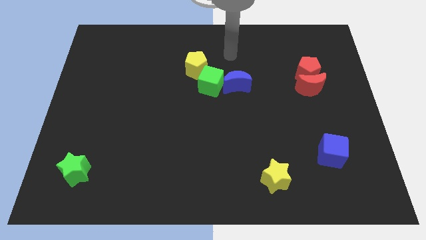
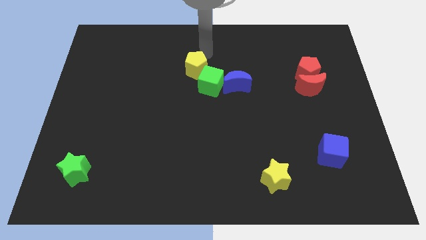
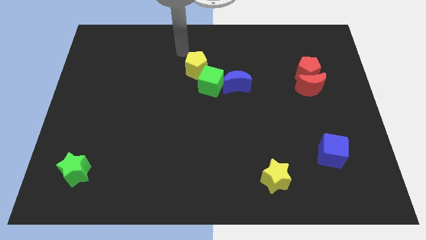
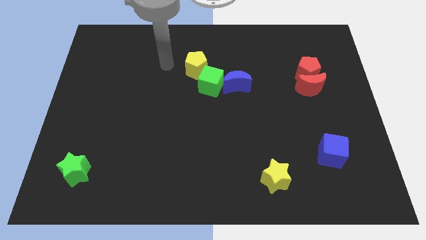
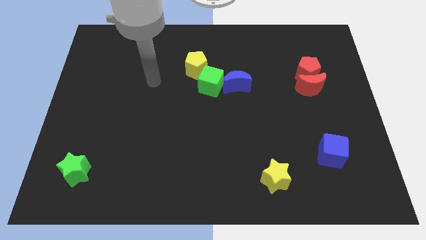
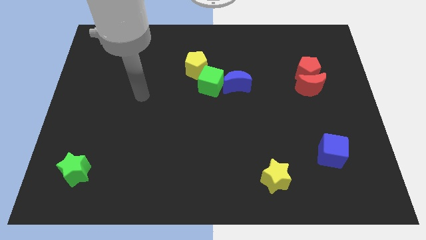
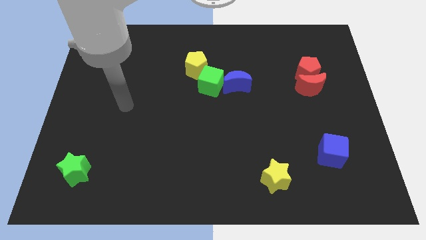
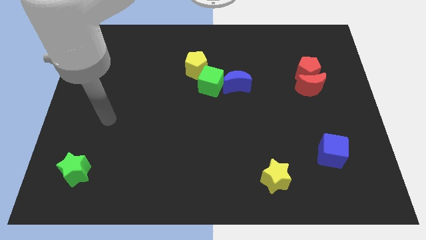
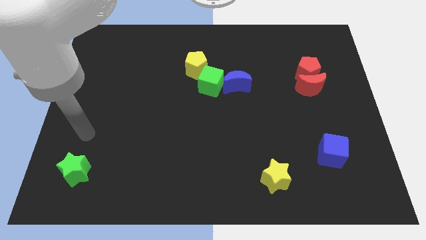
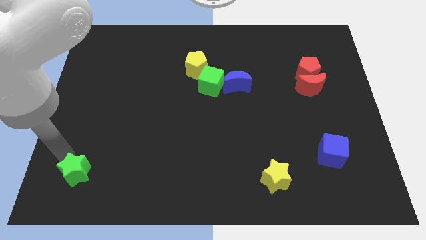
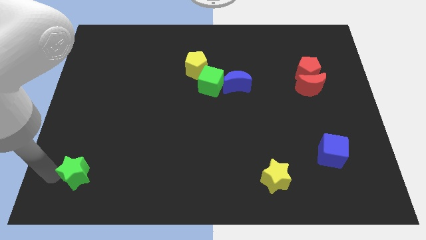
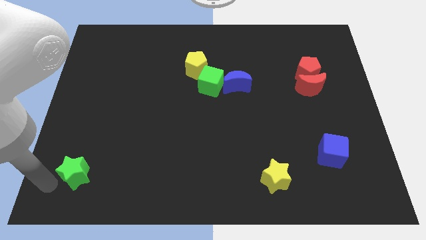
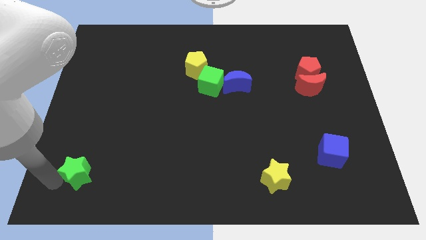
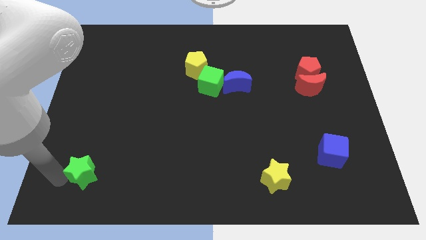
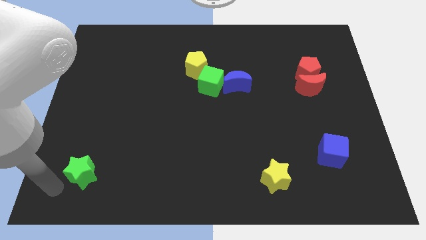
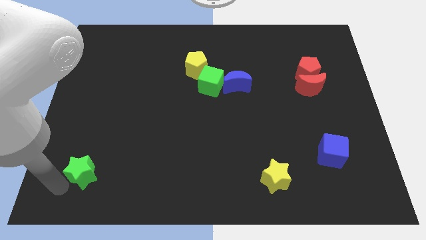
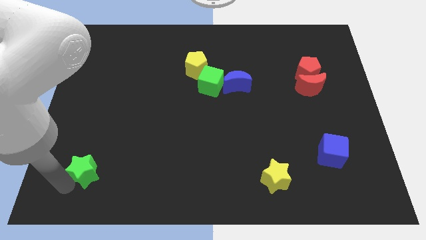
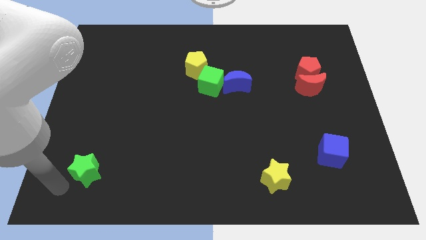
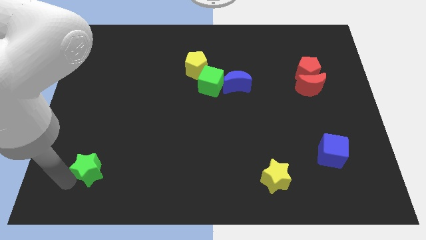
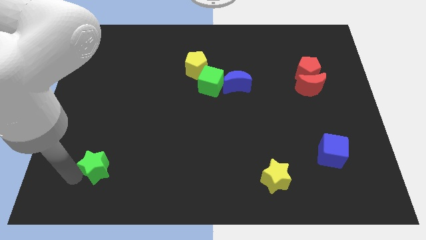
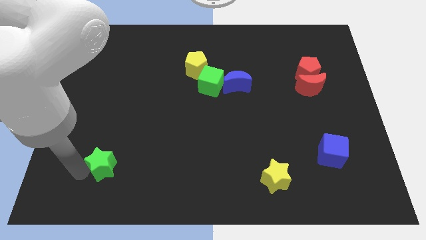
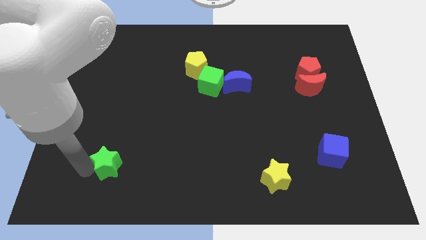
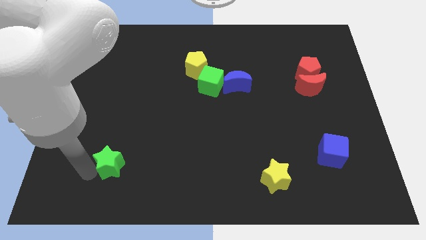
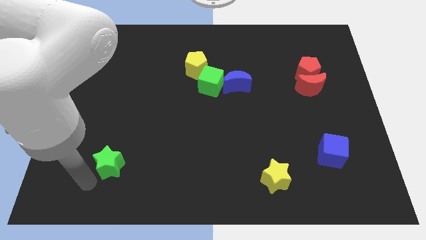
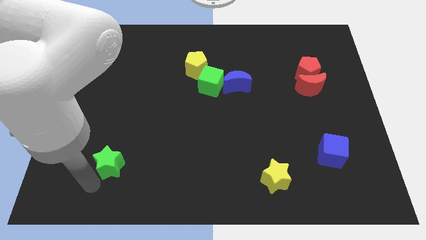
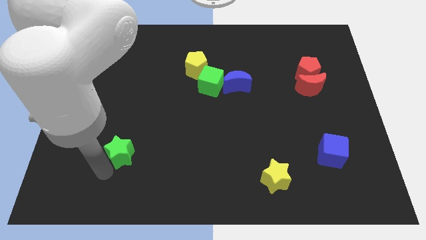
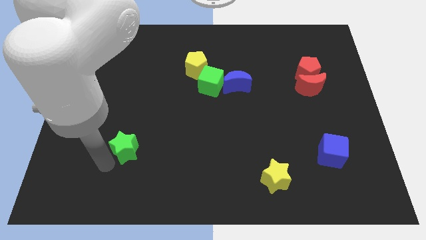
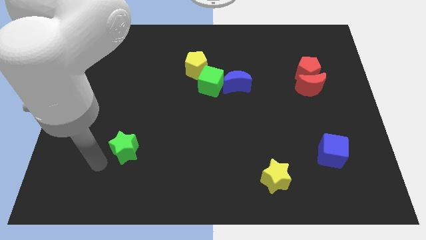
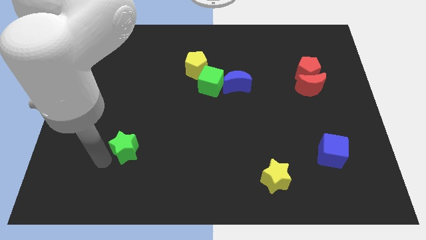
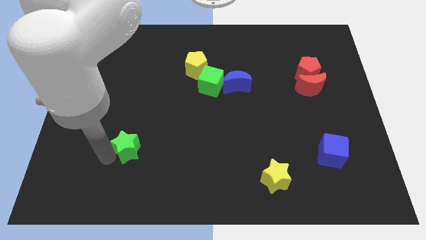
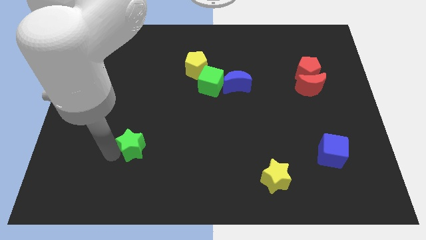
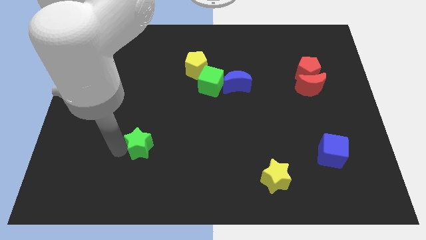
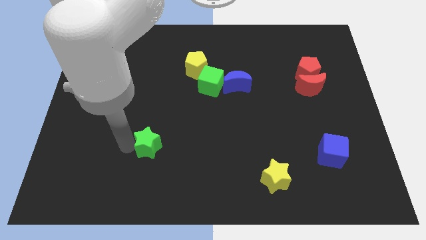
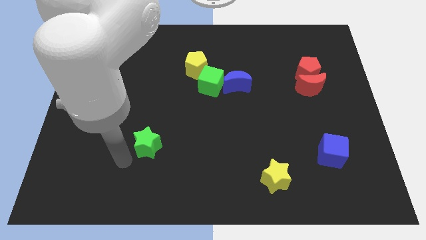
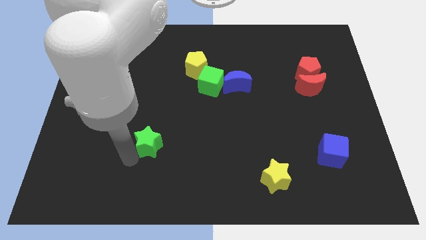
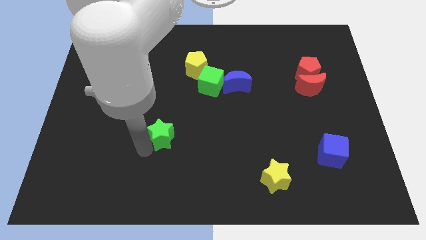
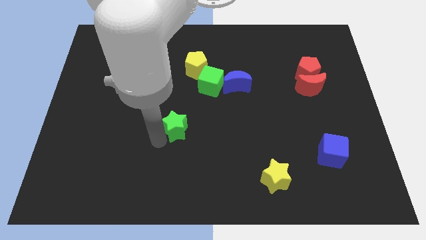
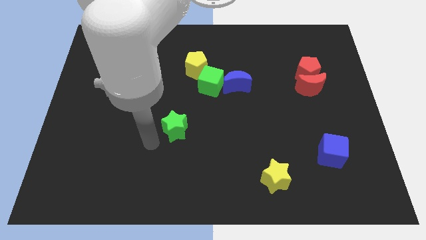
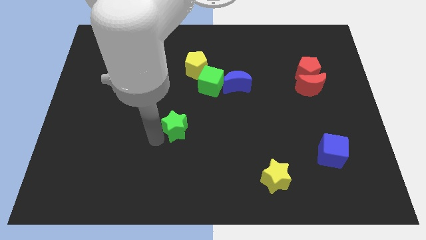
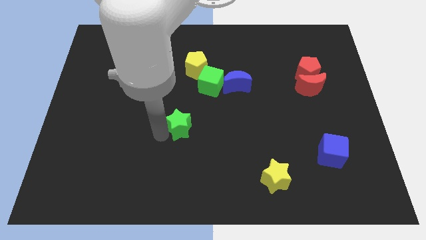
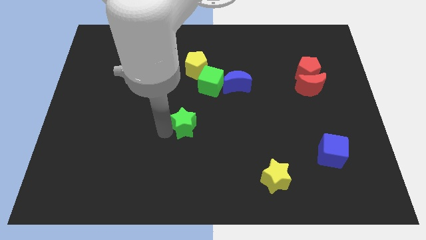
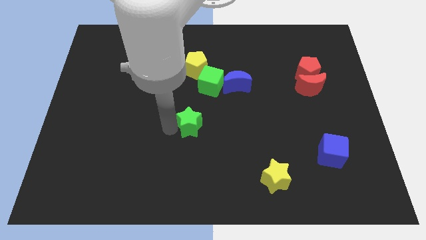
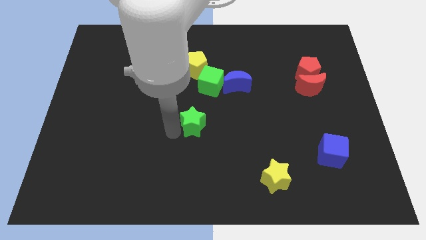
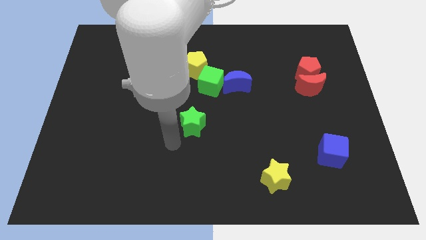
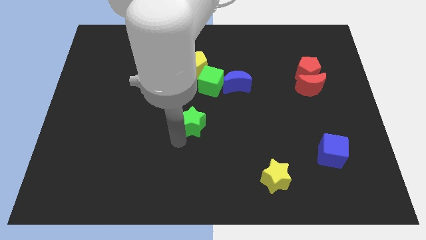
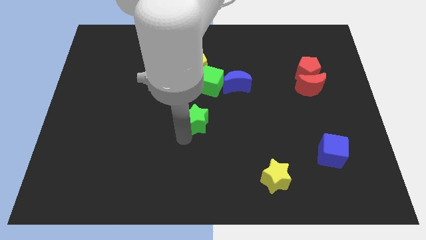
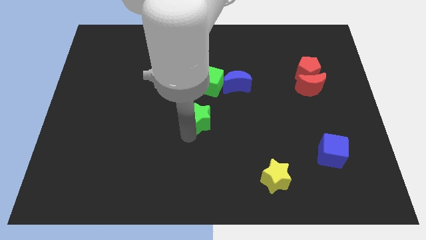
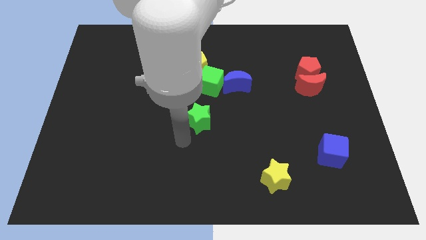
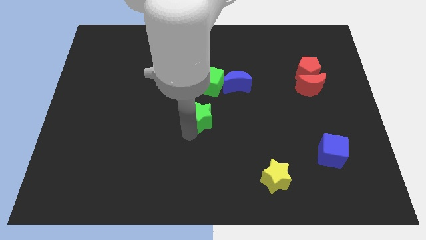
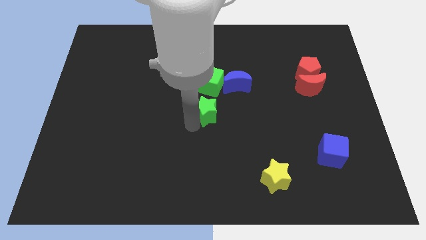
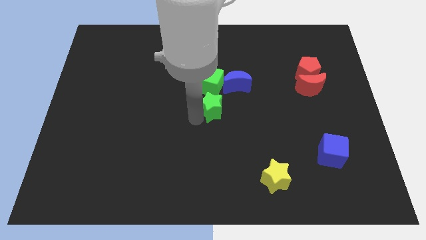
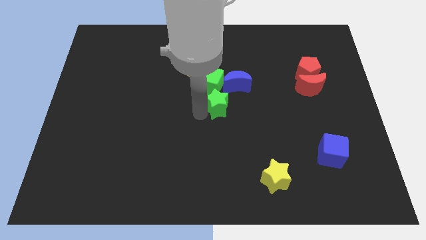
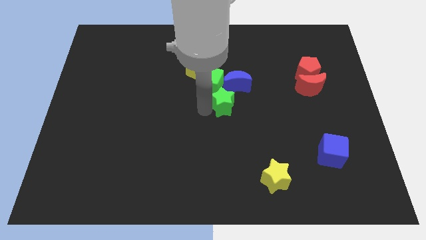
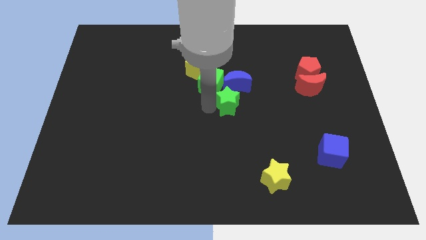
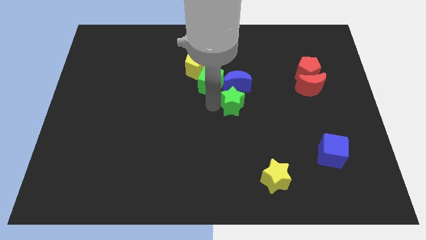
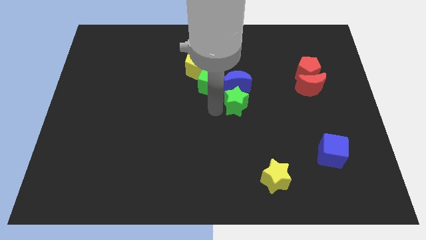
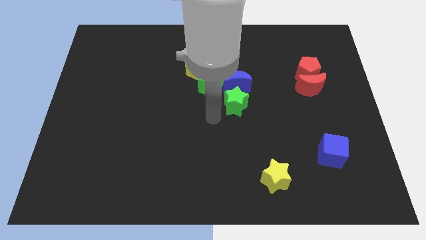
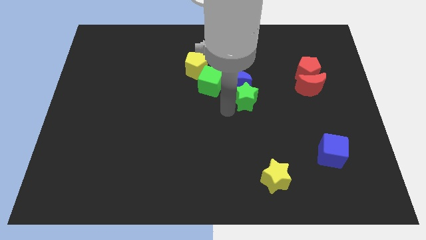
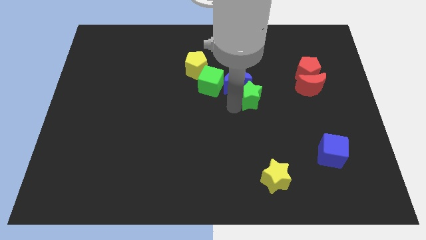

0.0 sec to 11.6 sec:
move the green star right of the blue moon

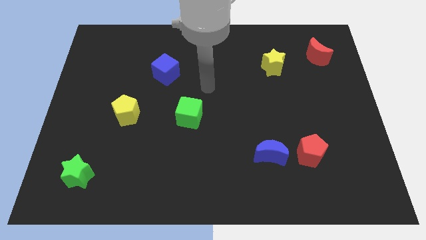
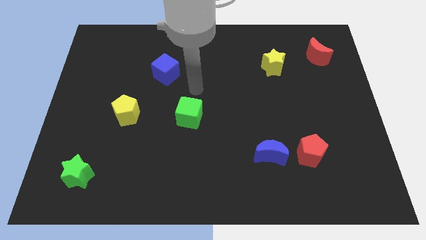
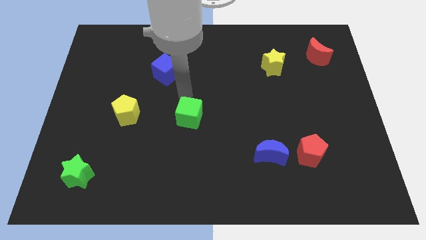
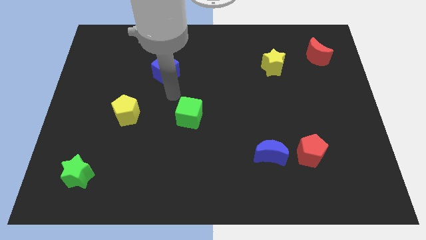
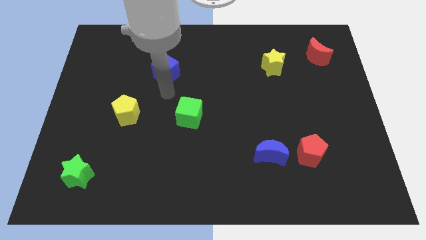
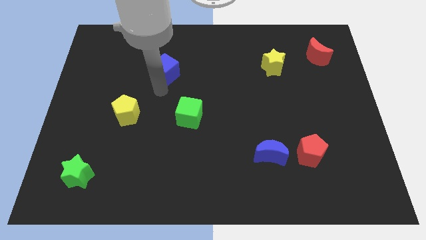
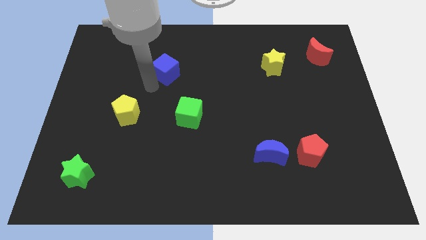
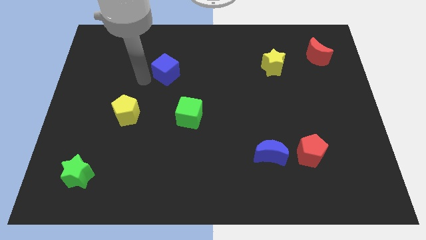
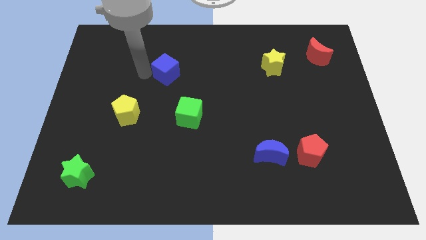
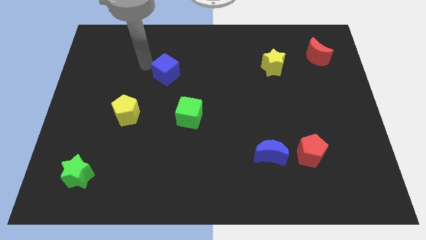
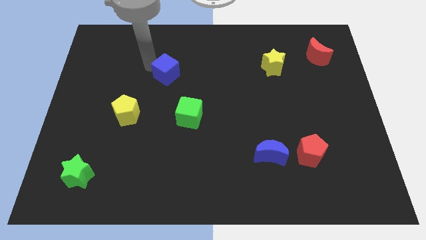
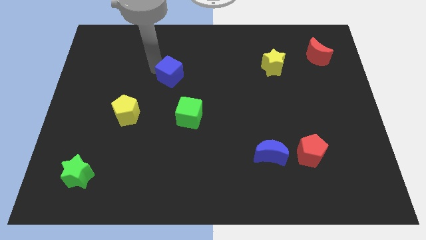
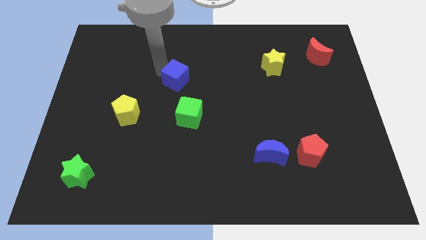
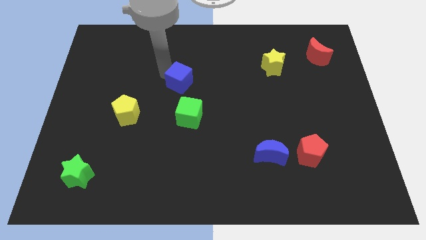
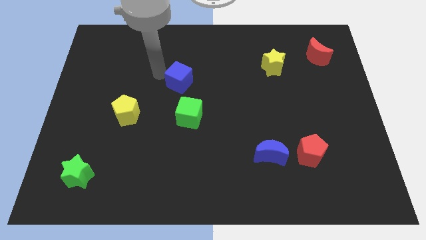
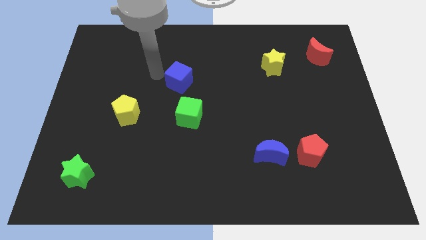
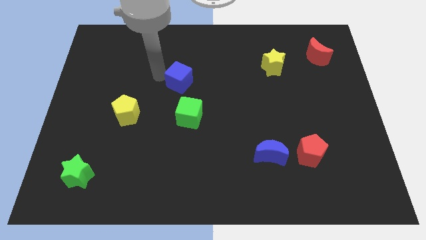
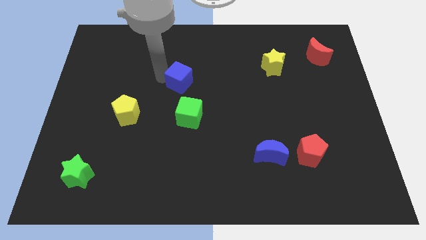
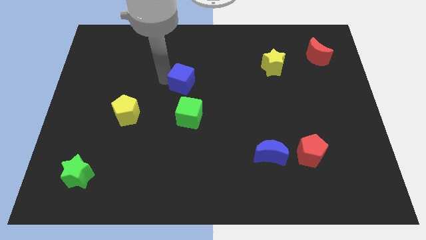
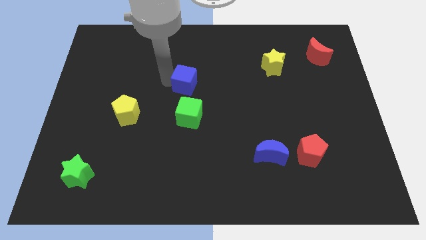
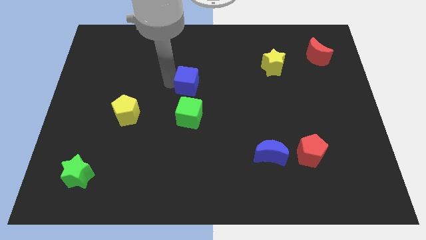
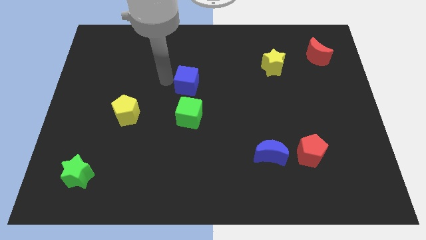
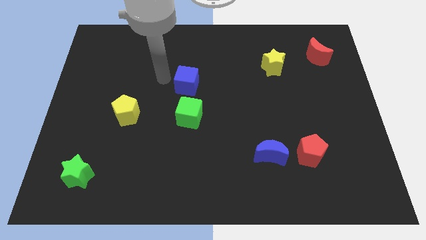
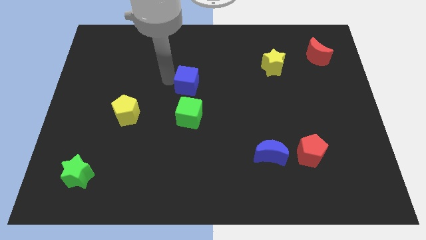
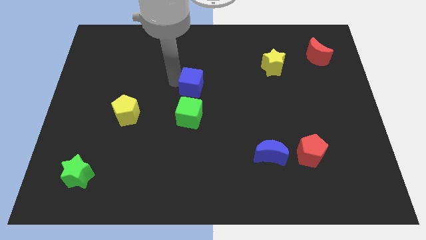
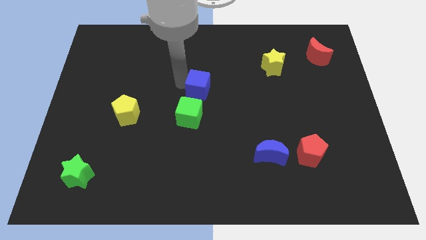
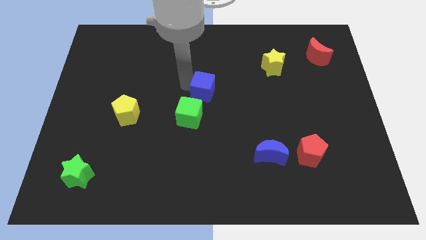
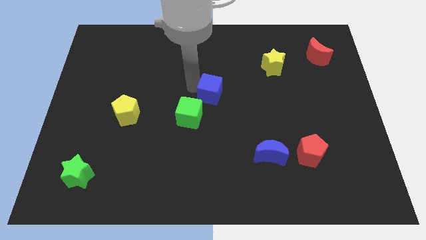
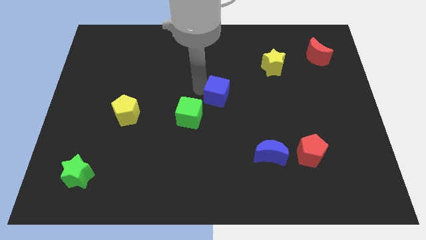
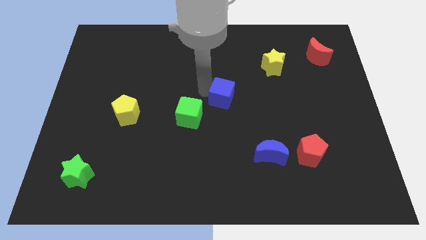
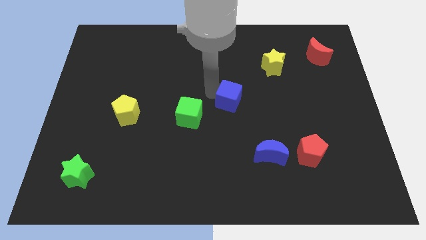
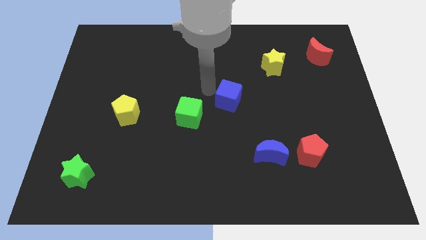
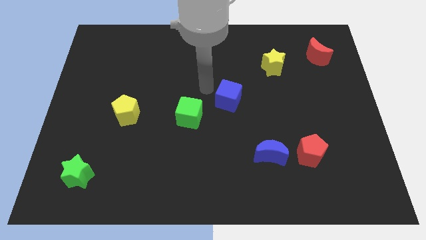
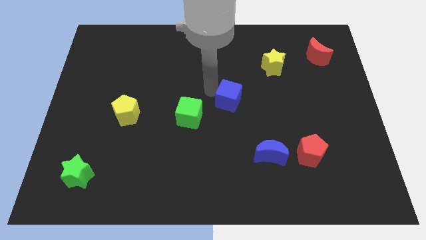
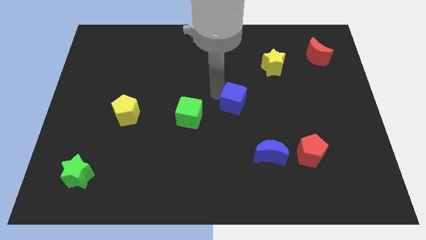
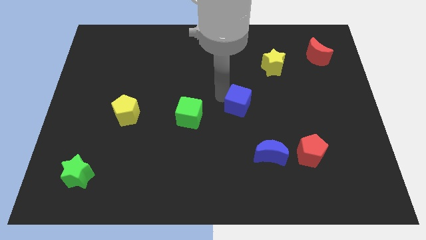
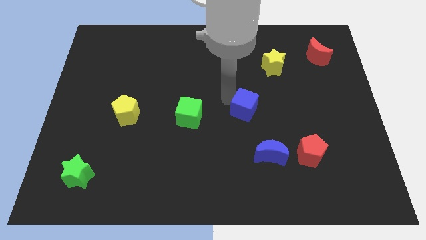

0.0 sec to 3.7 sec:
put the blue cube above the blue moon
